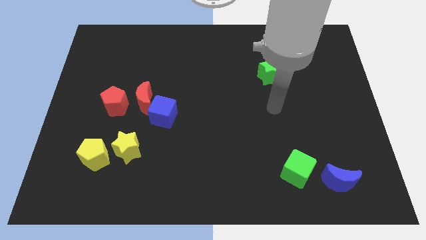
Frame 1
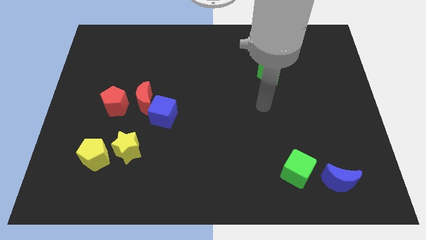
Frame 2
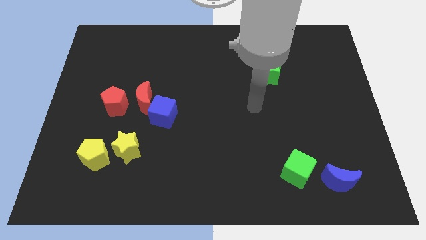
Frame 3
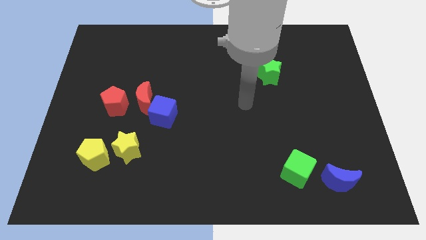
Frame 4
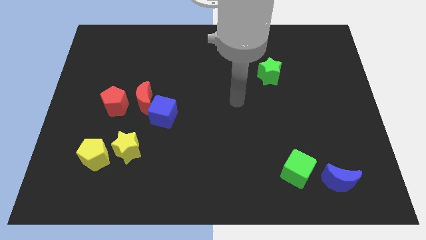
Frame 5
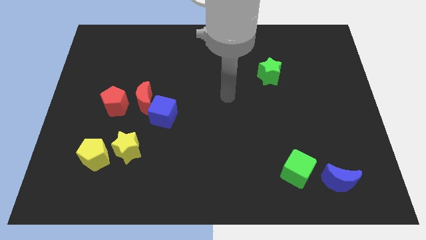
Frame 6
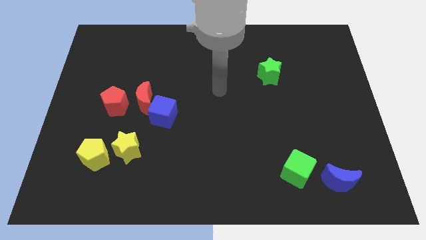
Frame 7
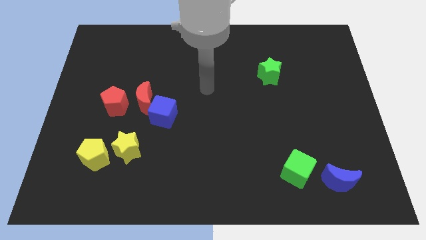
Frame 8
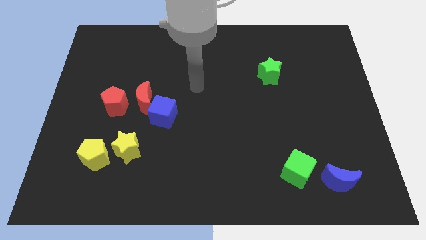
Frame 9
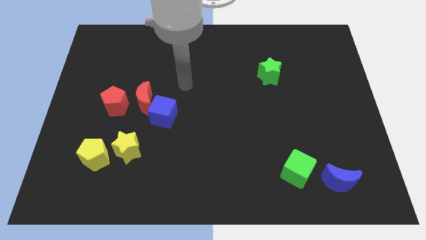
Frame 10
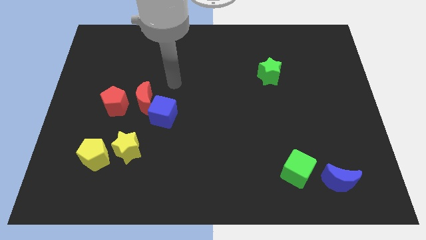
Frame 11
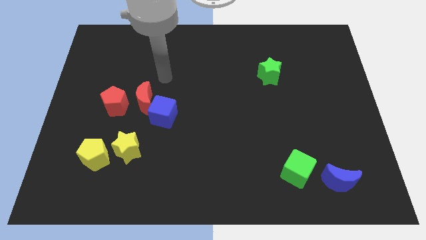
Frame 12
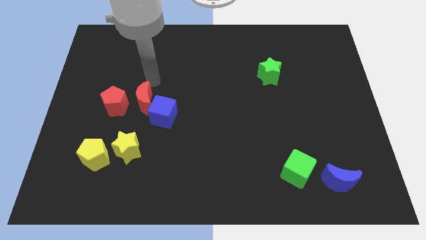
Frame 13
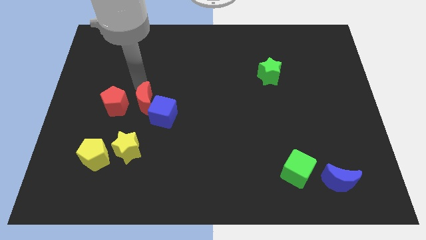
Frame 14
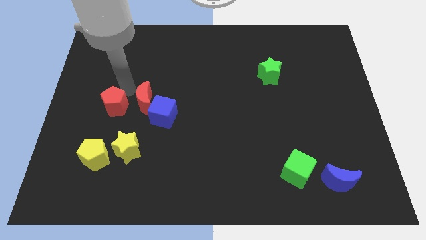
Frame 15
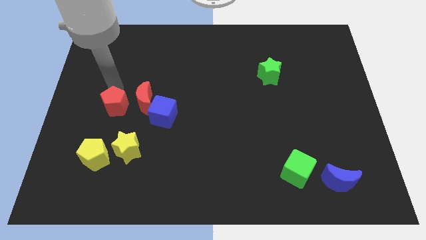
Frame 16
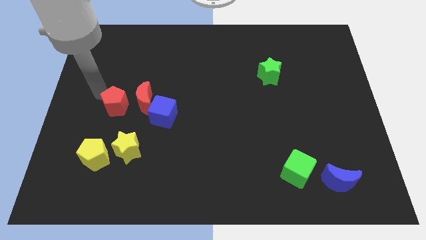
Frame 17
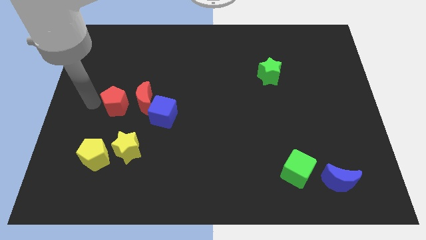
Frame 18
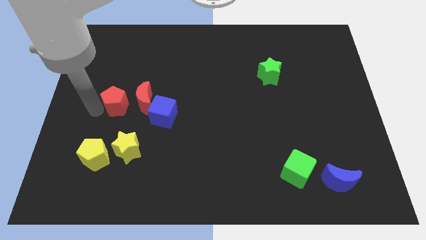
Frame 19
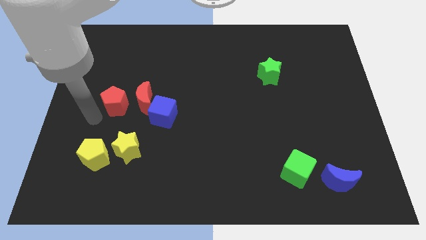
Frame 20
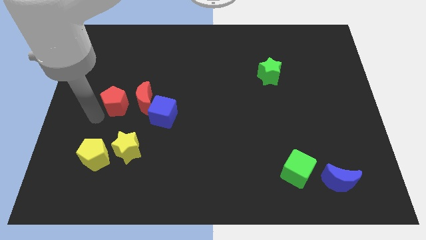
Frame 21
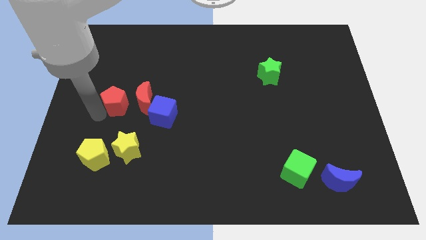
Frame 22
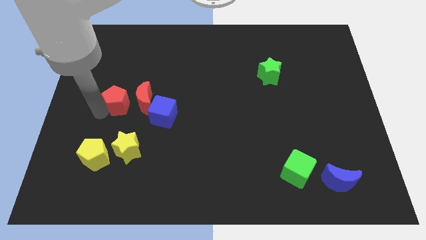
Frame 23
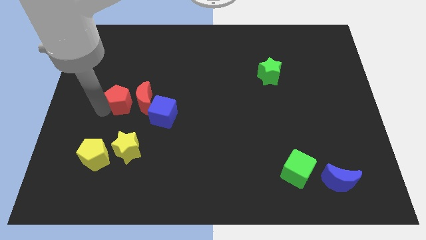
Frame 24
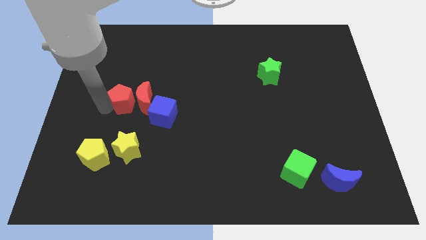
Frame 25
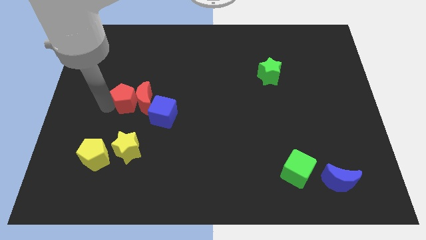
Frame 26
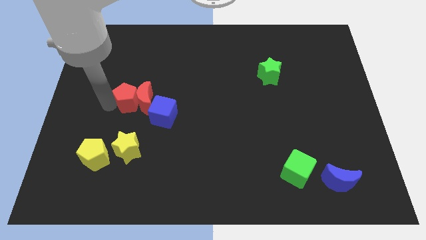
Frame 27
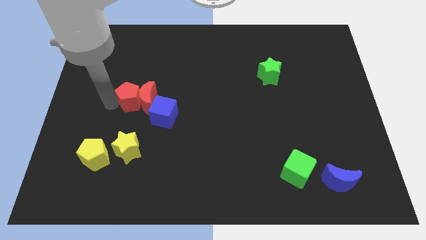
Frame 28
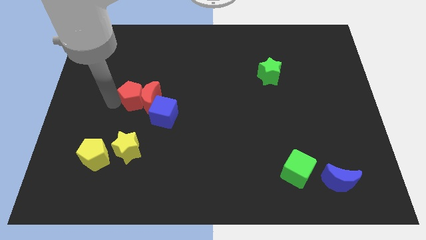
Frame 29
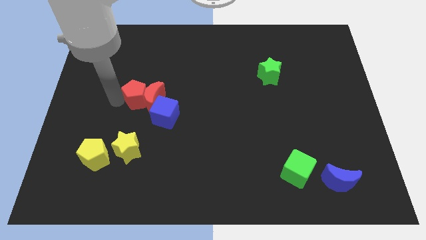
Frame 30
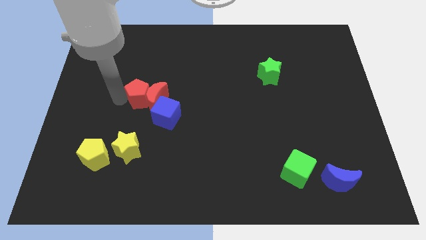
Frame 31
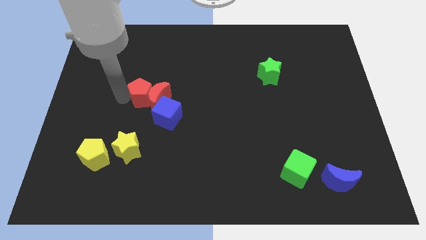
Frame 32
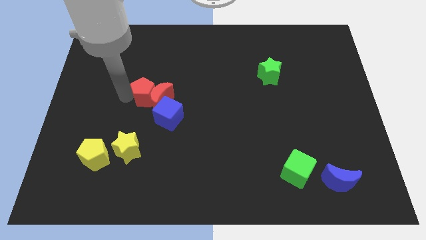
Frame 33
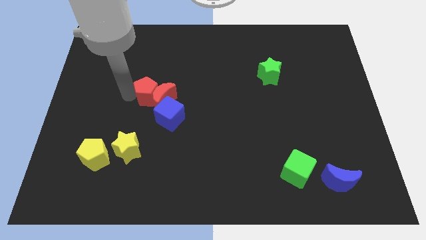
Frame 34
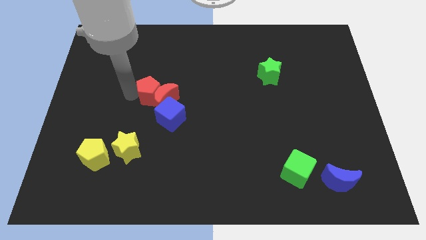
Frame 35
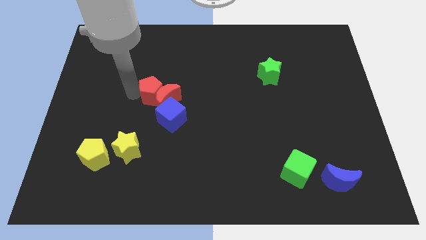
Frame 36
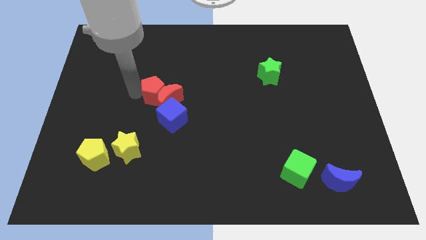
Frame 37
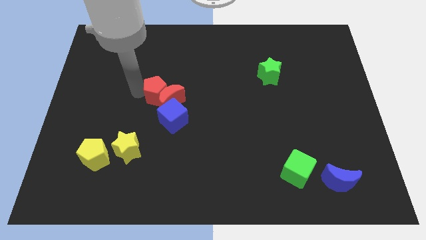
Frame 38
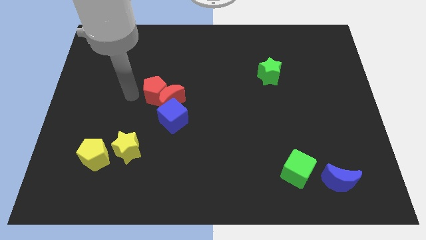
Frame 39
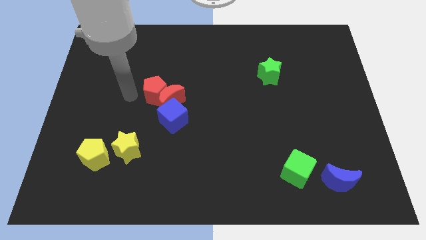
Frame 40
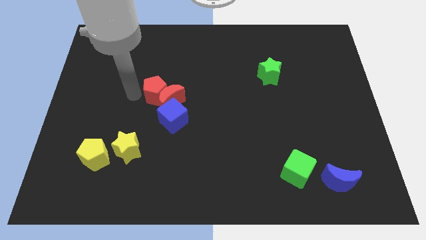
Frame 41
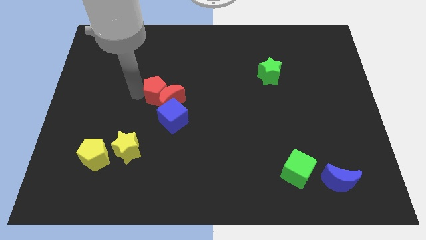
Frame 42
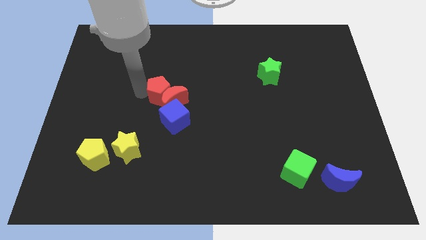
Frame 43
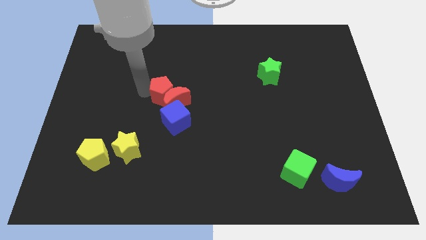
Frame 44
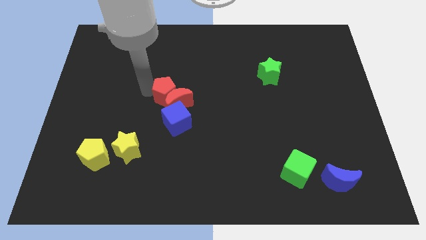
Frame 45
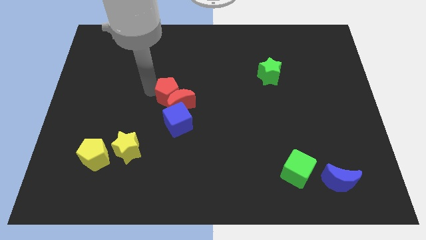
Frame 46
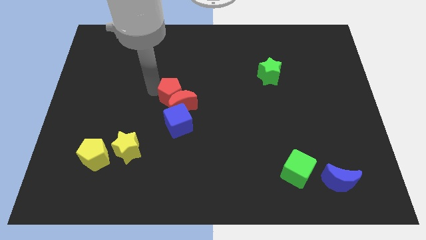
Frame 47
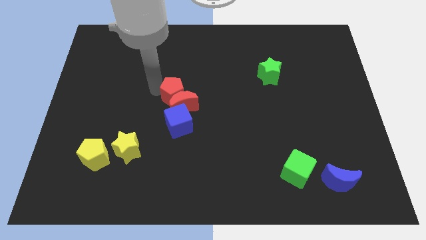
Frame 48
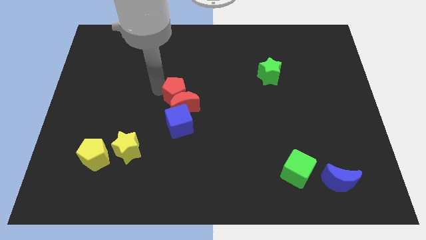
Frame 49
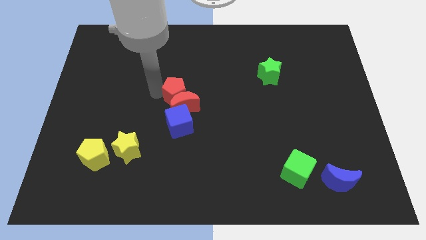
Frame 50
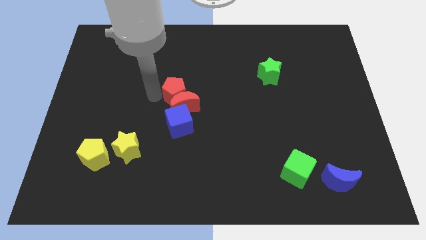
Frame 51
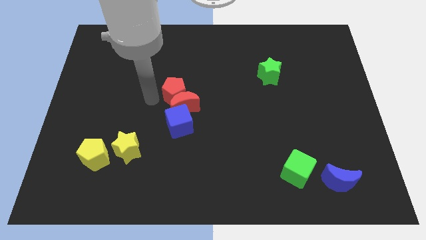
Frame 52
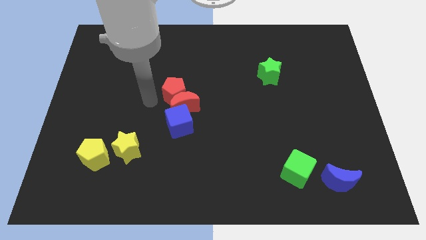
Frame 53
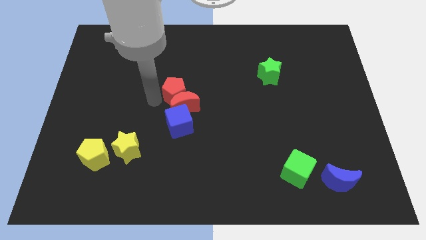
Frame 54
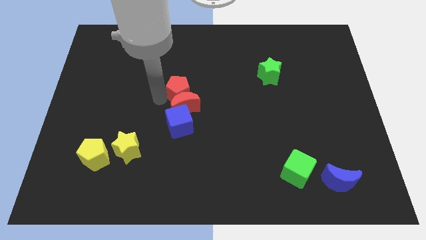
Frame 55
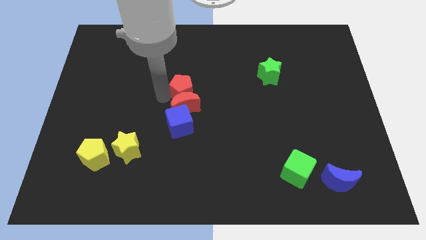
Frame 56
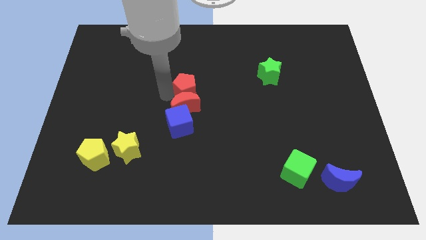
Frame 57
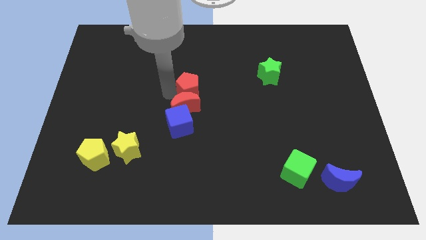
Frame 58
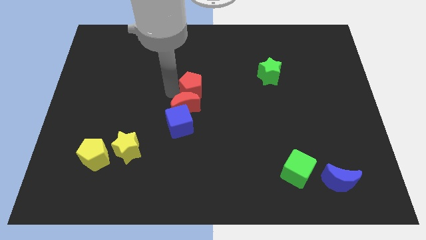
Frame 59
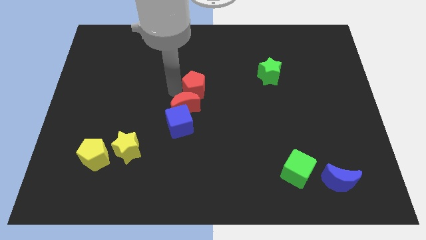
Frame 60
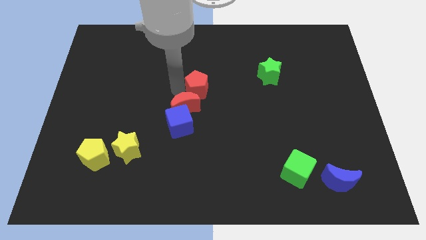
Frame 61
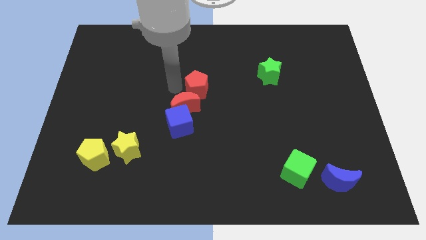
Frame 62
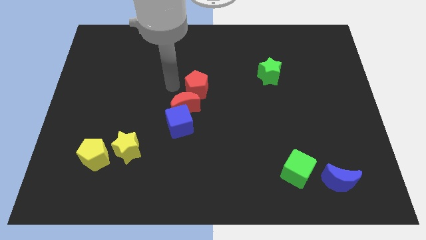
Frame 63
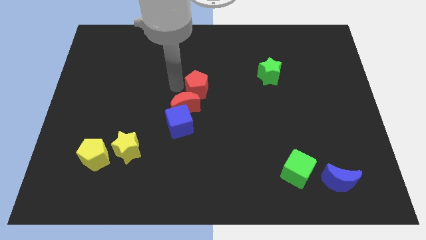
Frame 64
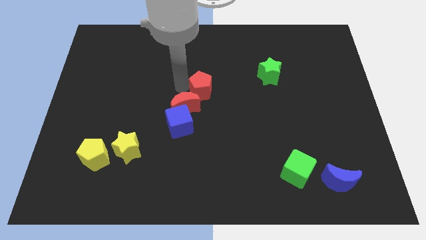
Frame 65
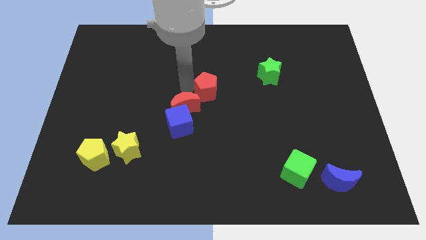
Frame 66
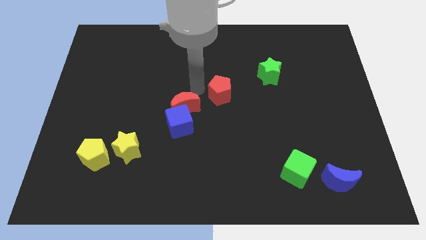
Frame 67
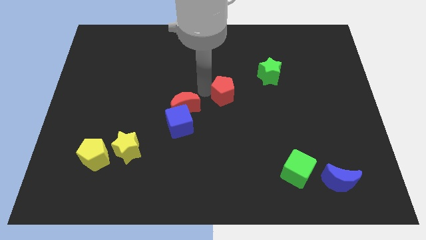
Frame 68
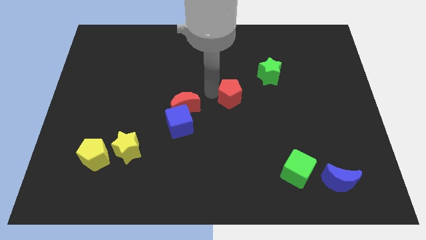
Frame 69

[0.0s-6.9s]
move the red pentagon to the bottom left side of the green star

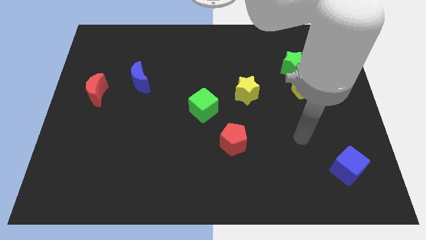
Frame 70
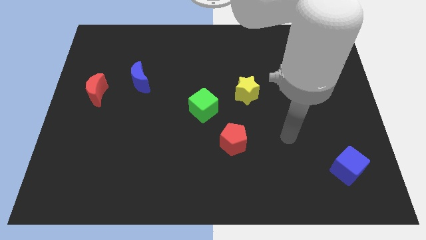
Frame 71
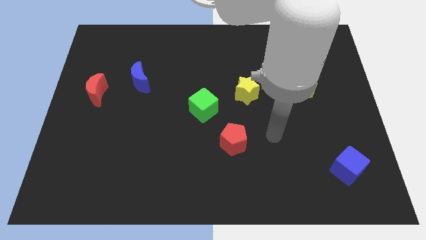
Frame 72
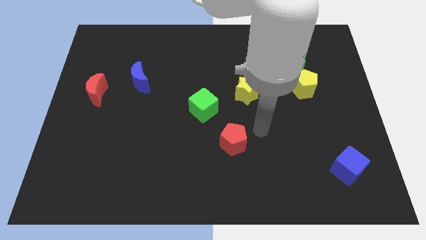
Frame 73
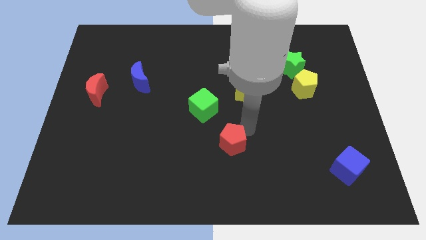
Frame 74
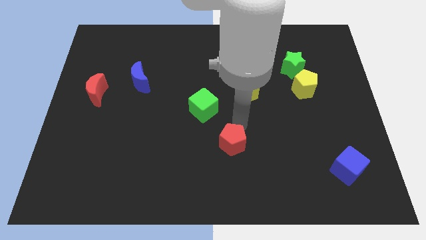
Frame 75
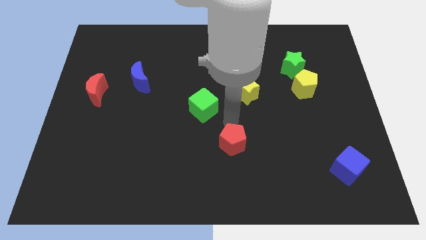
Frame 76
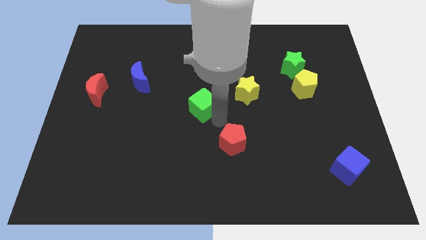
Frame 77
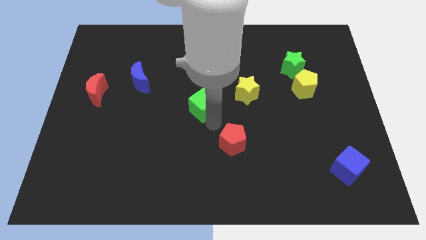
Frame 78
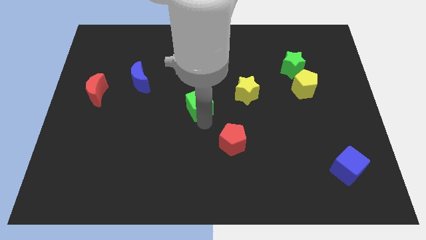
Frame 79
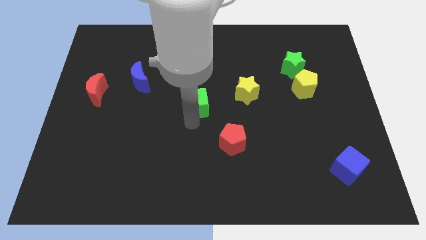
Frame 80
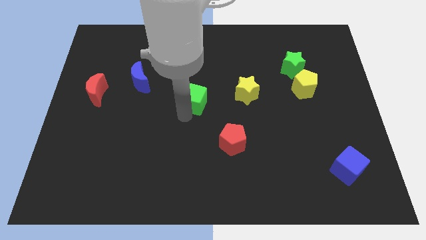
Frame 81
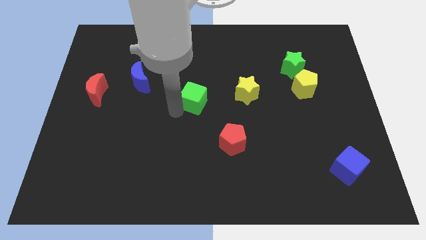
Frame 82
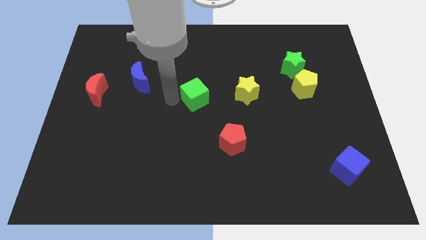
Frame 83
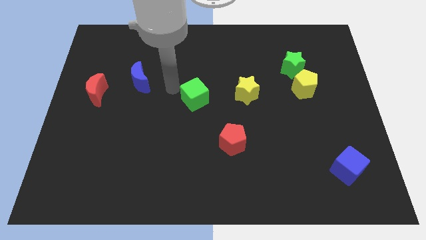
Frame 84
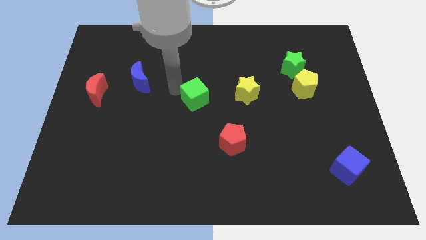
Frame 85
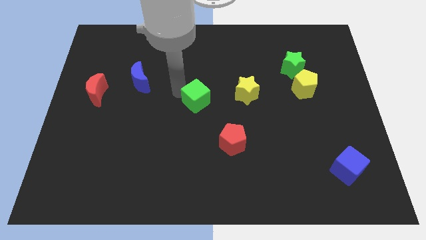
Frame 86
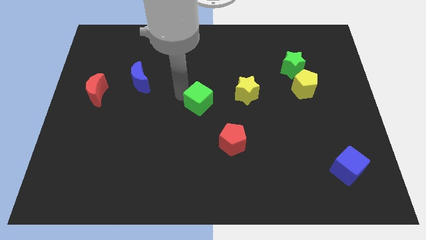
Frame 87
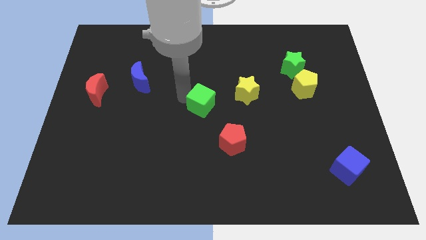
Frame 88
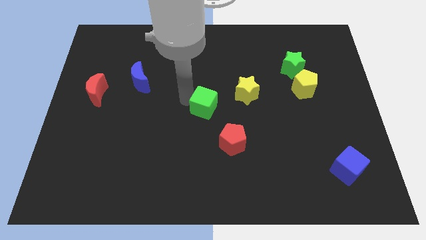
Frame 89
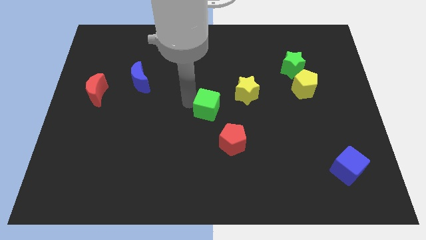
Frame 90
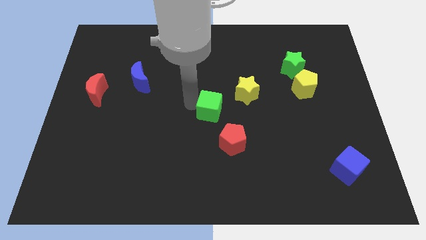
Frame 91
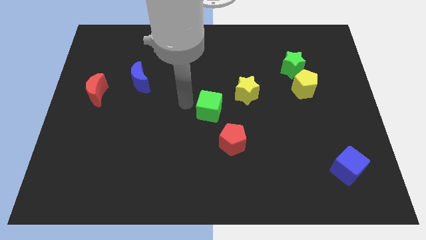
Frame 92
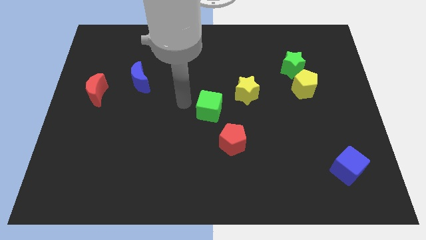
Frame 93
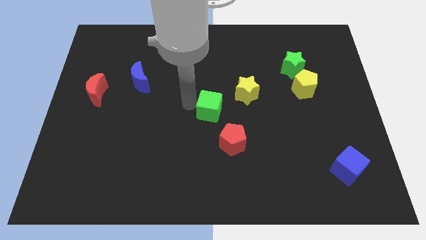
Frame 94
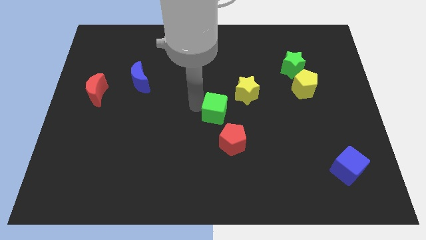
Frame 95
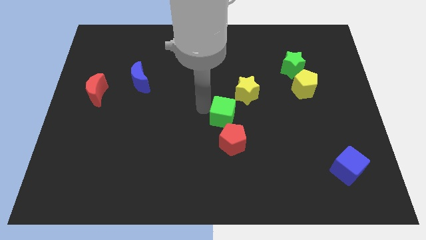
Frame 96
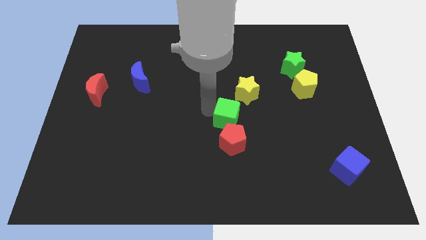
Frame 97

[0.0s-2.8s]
slide the green cube to the bottom of the yellow star
